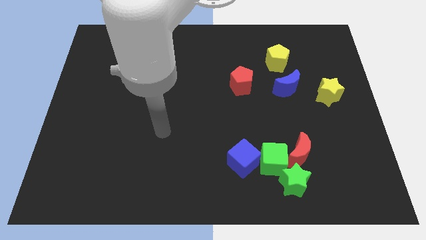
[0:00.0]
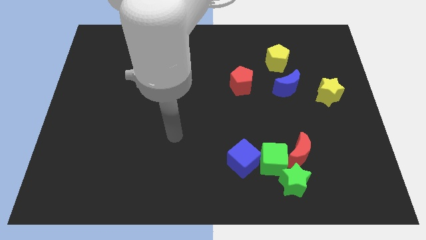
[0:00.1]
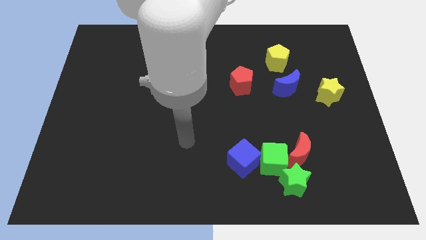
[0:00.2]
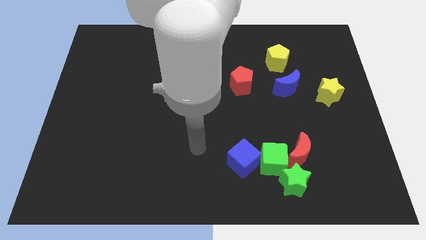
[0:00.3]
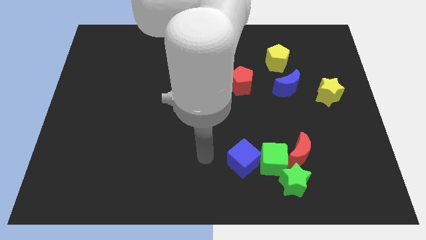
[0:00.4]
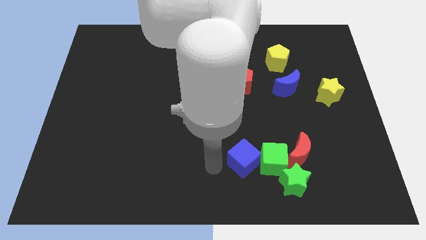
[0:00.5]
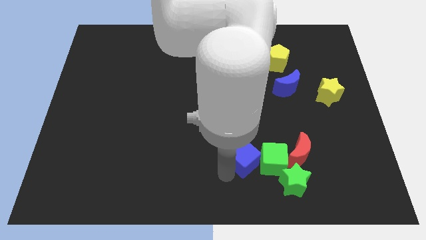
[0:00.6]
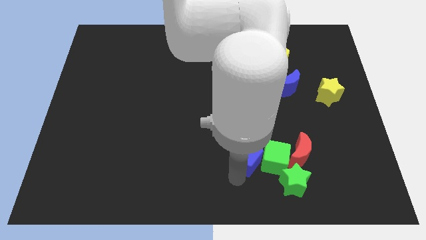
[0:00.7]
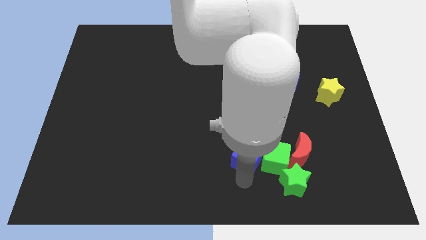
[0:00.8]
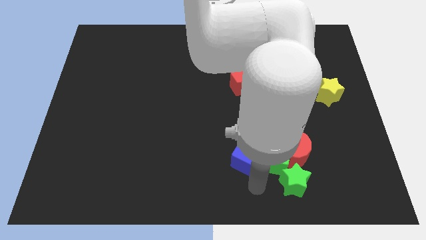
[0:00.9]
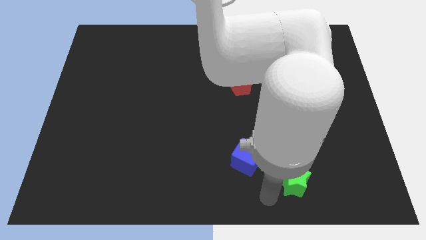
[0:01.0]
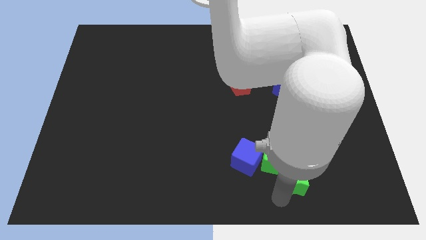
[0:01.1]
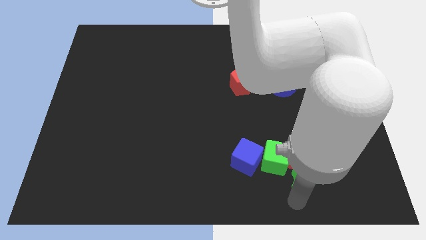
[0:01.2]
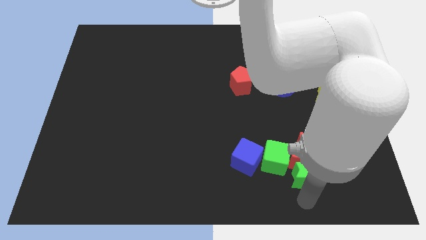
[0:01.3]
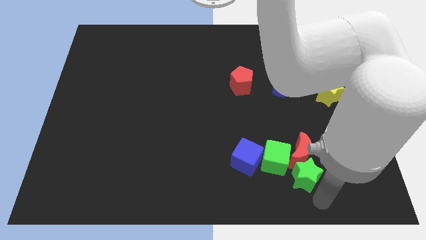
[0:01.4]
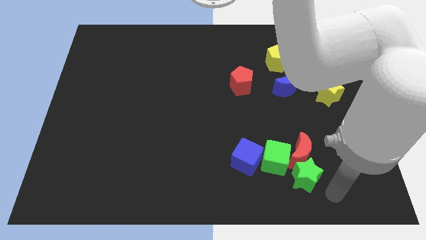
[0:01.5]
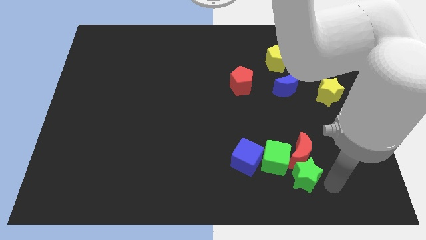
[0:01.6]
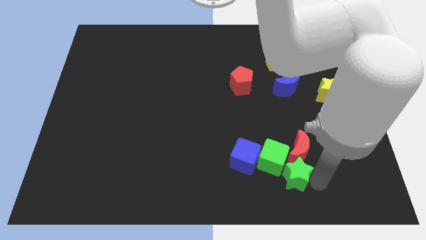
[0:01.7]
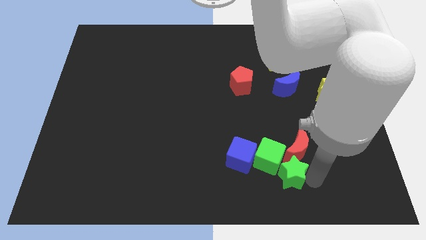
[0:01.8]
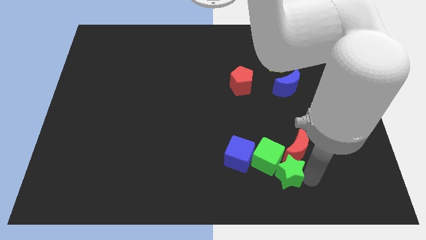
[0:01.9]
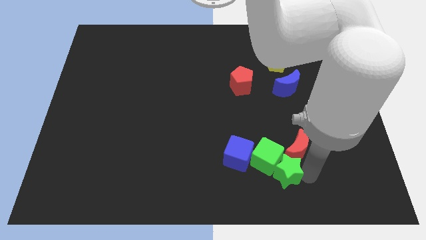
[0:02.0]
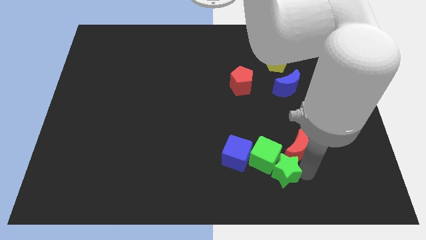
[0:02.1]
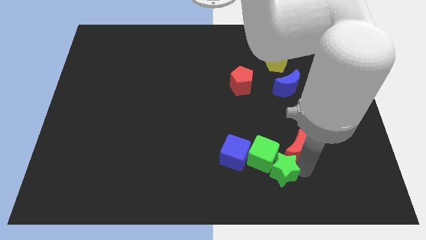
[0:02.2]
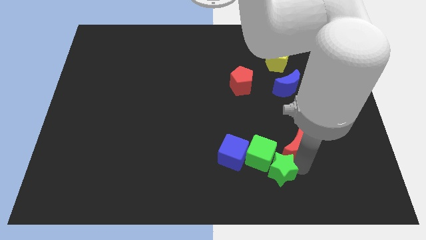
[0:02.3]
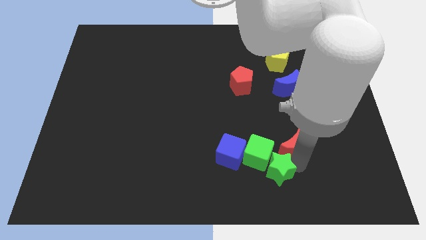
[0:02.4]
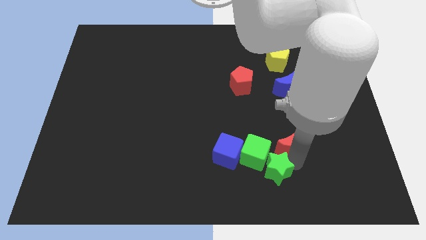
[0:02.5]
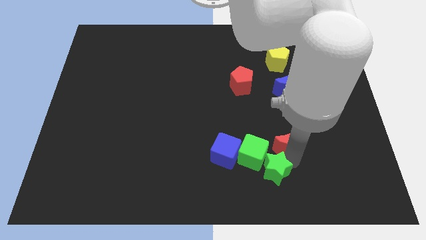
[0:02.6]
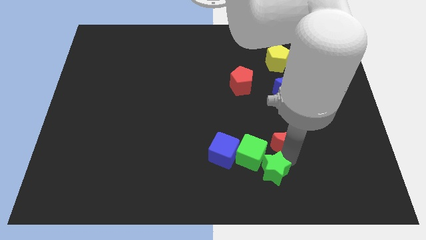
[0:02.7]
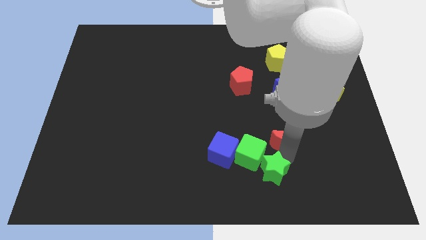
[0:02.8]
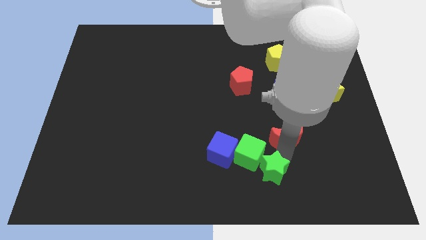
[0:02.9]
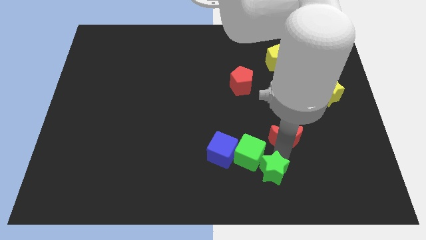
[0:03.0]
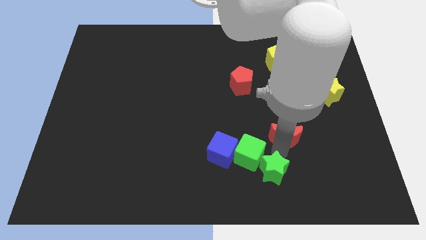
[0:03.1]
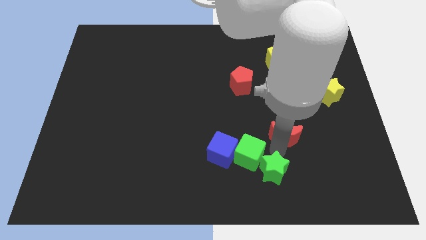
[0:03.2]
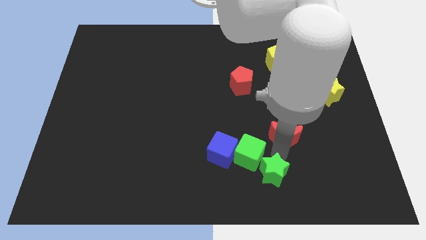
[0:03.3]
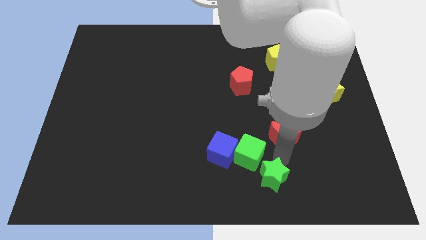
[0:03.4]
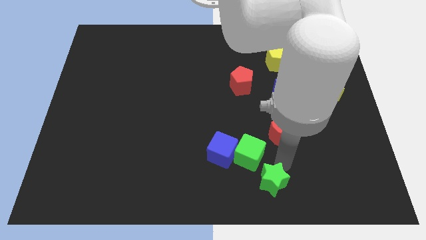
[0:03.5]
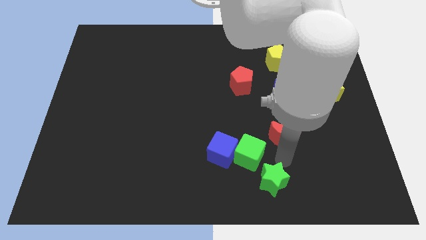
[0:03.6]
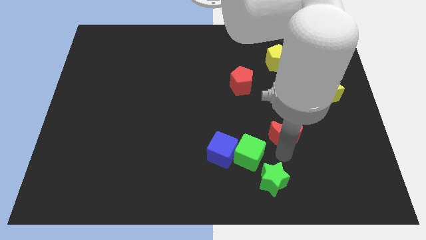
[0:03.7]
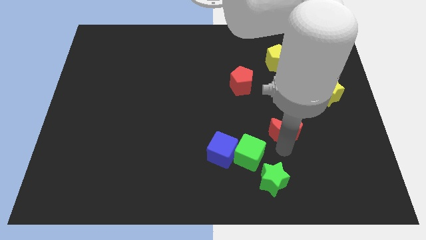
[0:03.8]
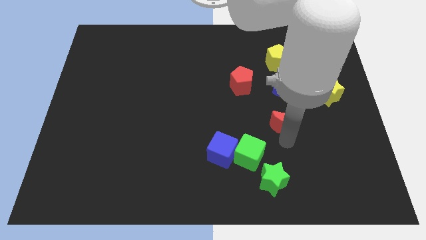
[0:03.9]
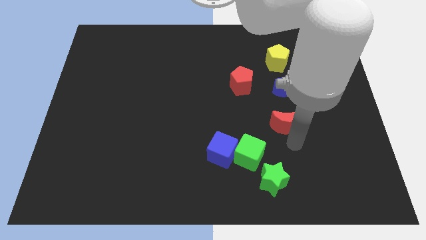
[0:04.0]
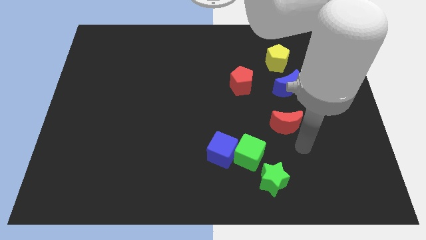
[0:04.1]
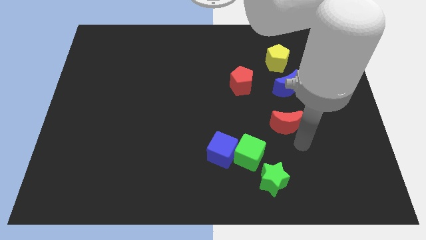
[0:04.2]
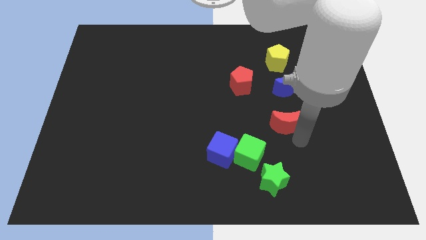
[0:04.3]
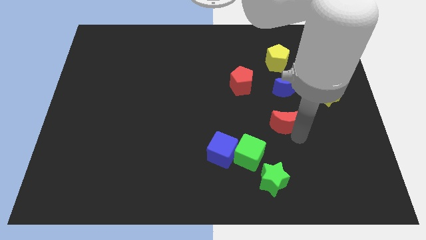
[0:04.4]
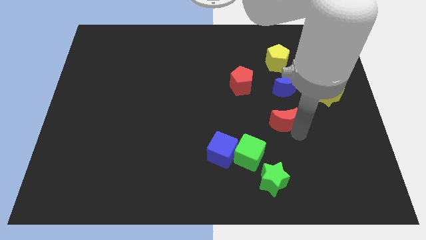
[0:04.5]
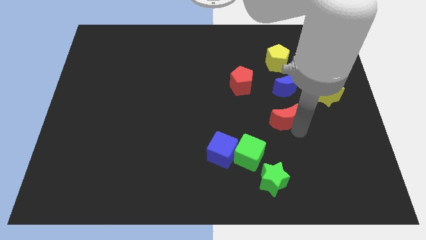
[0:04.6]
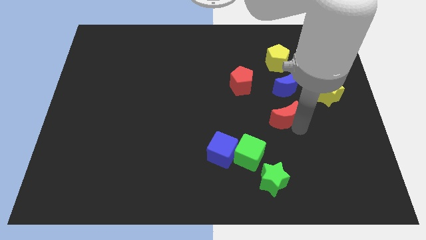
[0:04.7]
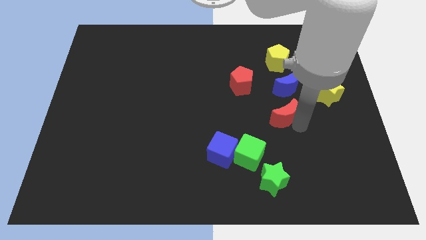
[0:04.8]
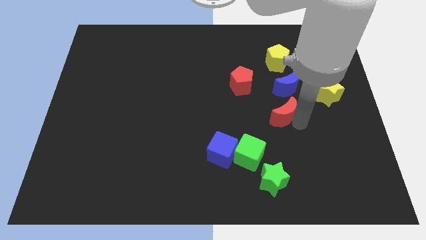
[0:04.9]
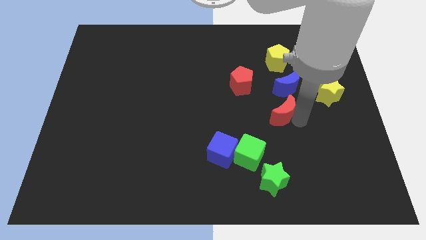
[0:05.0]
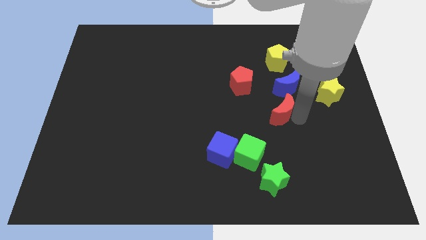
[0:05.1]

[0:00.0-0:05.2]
put the red moon diagonally down and to the right of the red pentagon

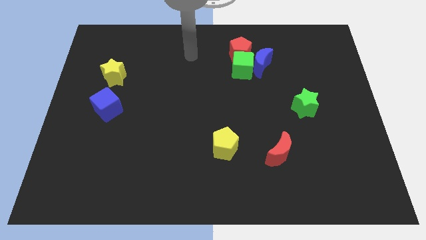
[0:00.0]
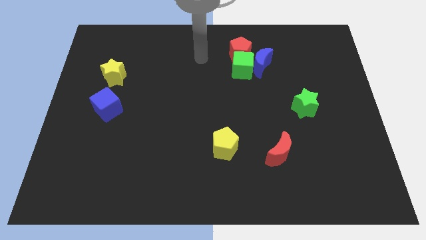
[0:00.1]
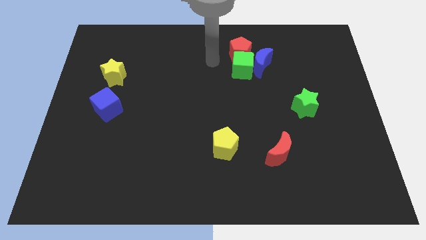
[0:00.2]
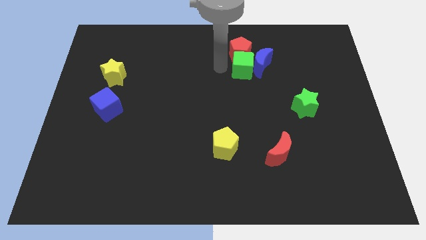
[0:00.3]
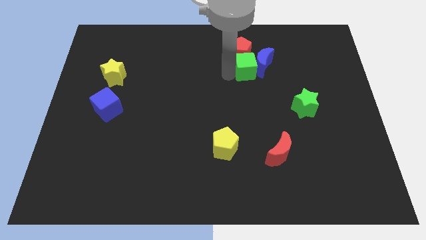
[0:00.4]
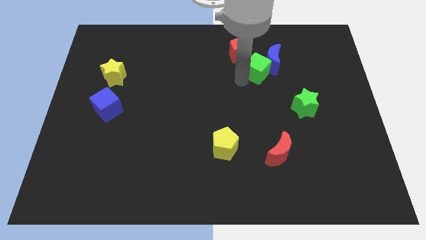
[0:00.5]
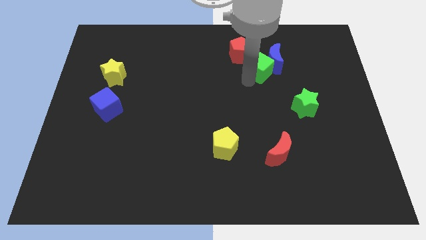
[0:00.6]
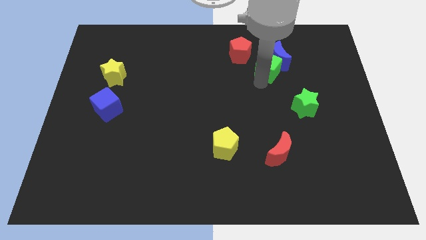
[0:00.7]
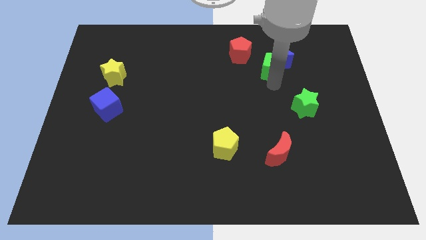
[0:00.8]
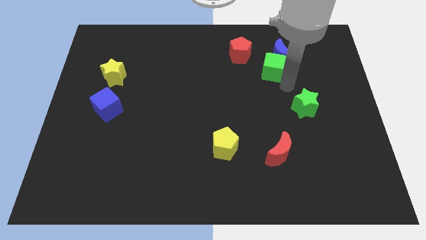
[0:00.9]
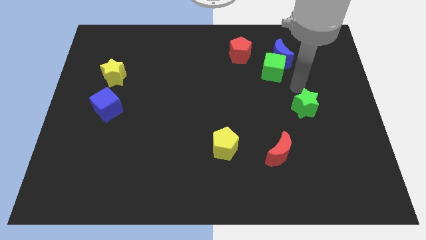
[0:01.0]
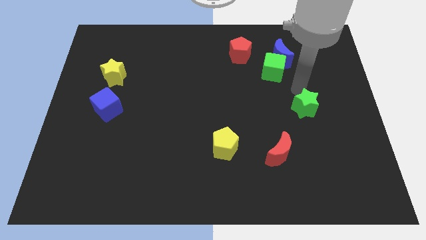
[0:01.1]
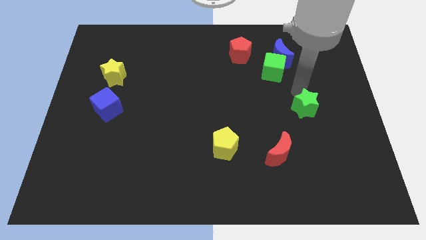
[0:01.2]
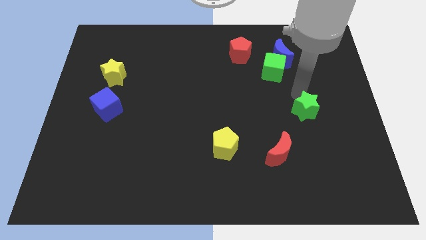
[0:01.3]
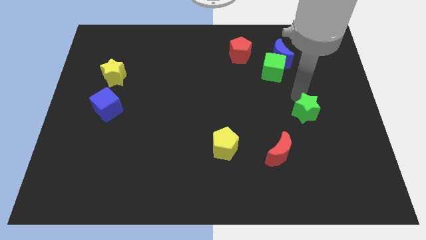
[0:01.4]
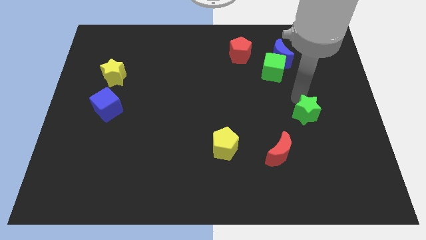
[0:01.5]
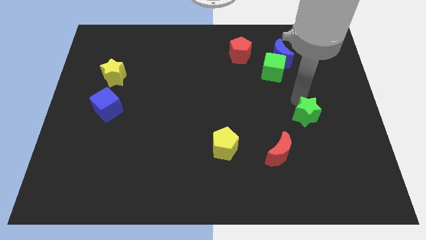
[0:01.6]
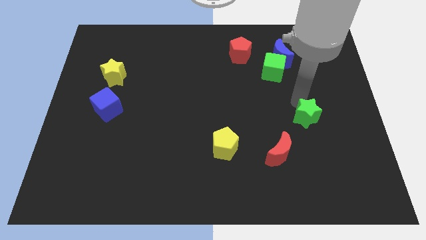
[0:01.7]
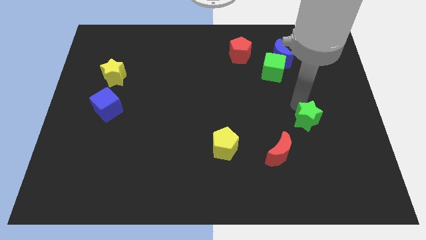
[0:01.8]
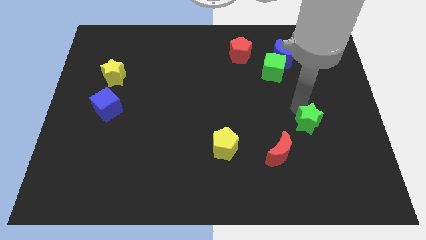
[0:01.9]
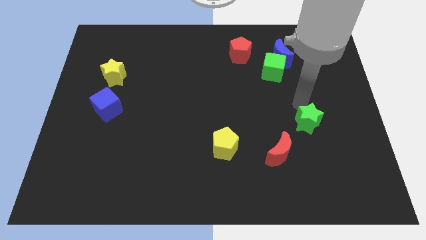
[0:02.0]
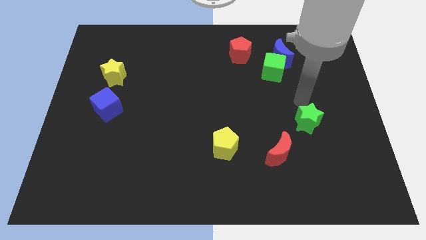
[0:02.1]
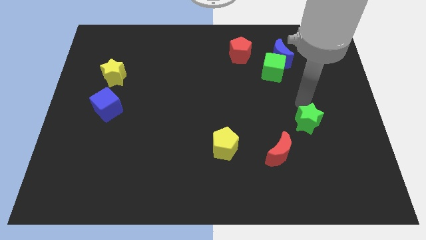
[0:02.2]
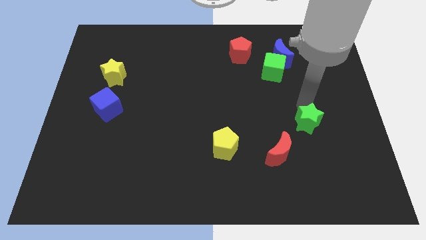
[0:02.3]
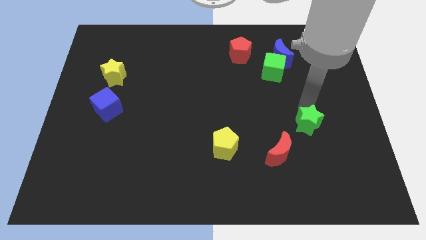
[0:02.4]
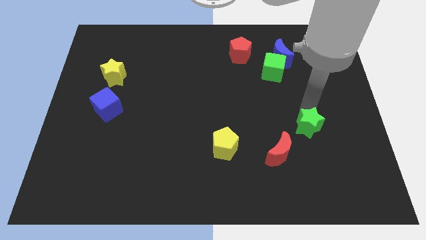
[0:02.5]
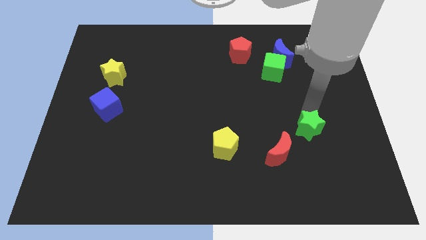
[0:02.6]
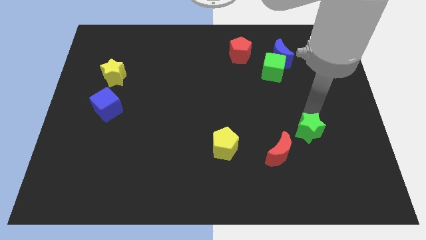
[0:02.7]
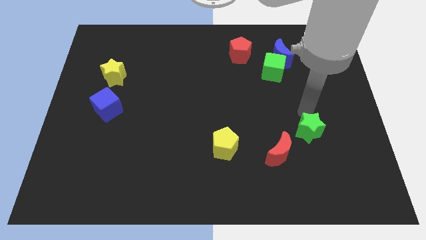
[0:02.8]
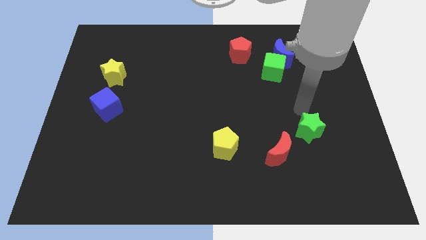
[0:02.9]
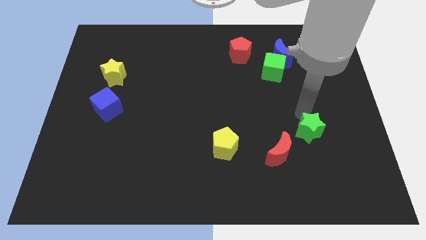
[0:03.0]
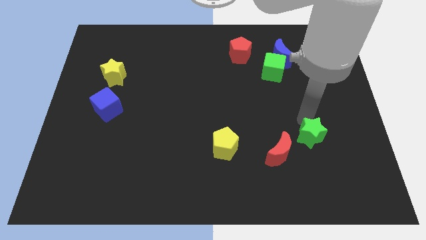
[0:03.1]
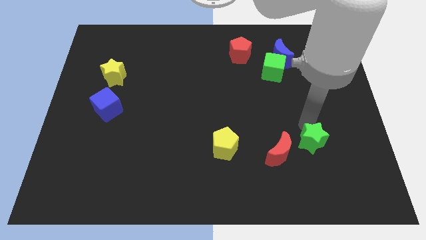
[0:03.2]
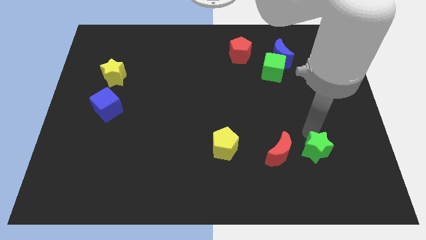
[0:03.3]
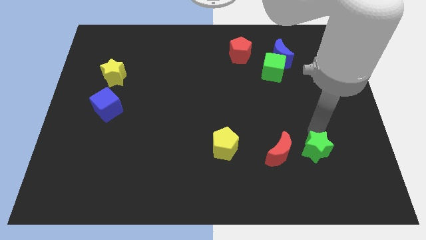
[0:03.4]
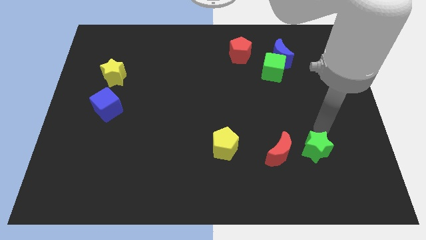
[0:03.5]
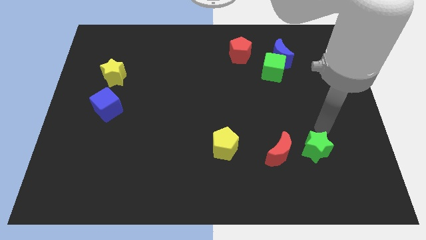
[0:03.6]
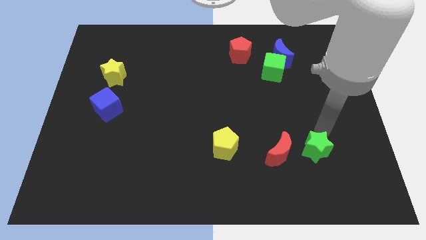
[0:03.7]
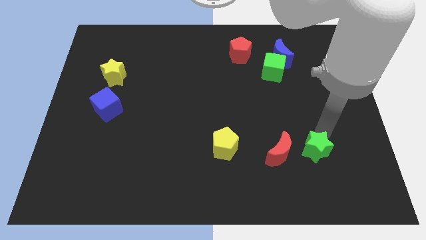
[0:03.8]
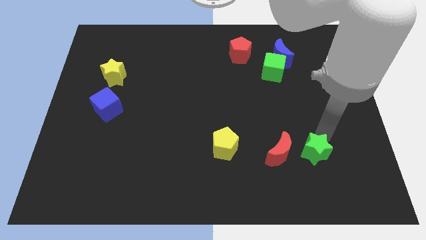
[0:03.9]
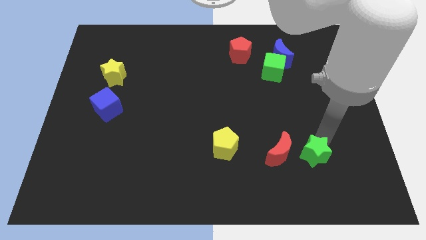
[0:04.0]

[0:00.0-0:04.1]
slide the green star diagonally down and to the right of the red moon
